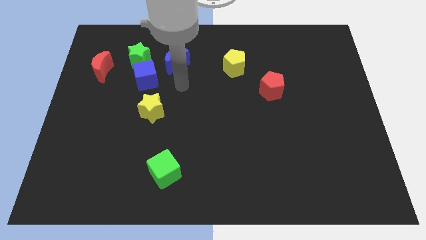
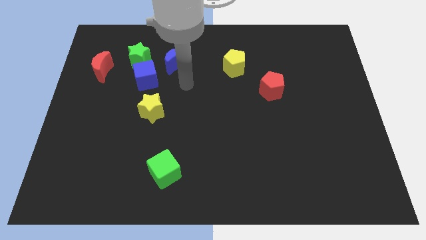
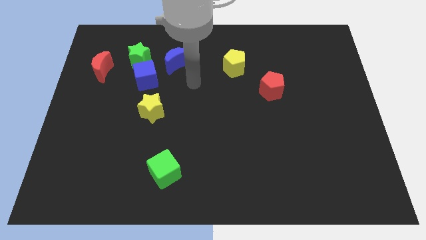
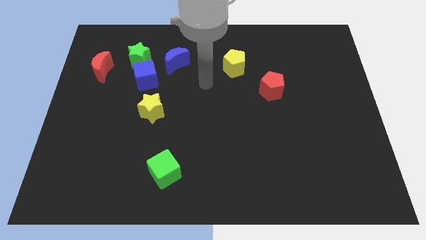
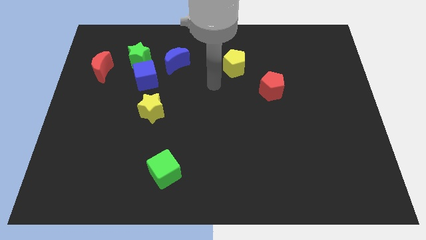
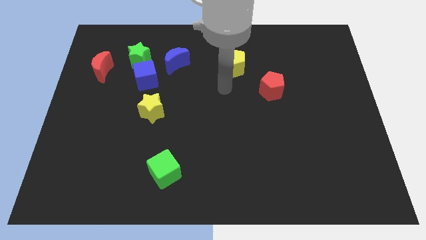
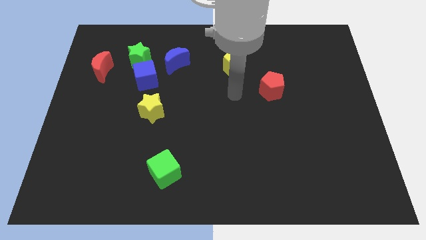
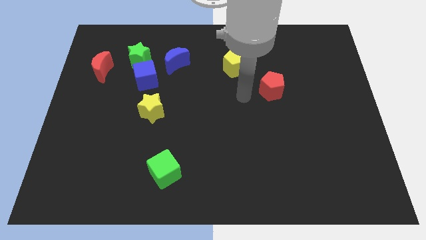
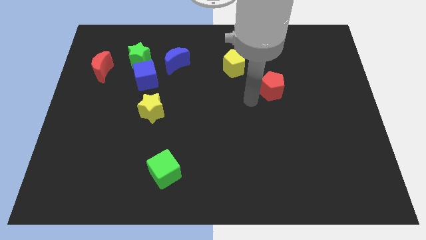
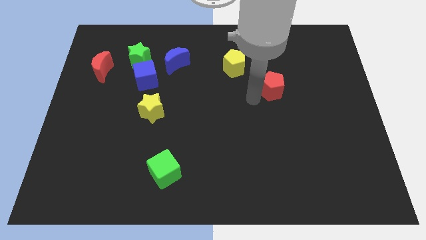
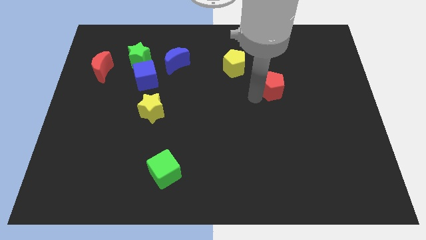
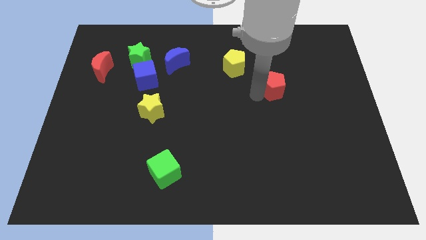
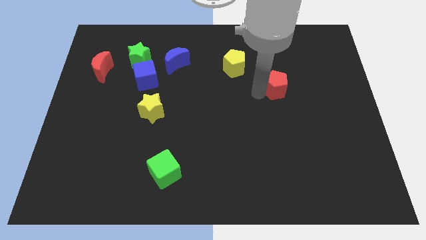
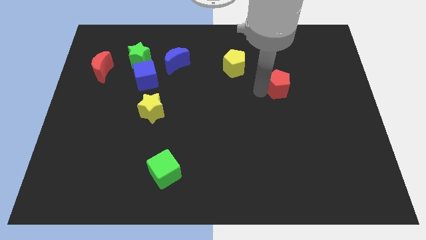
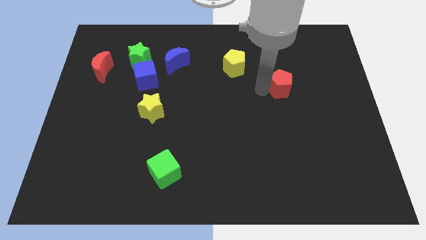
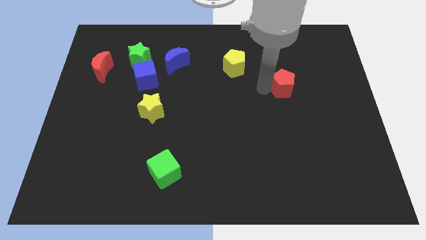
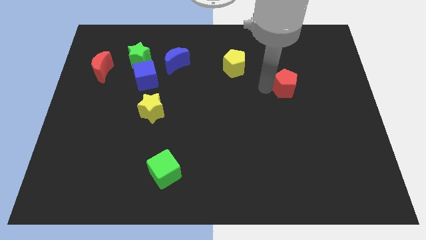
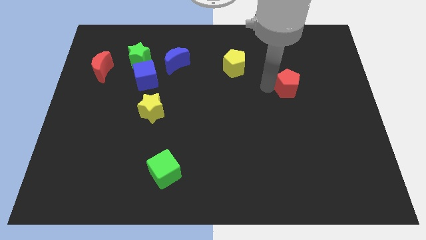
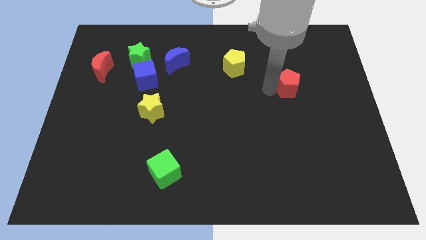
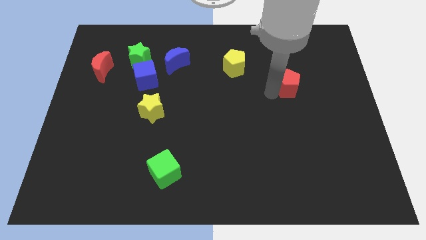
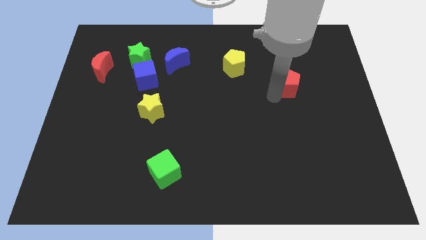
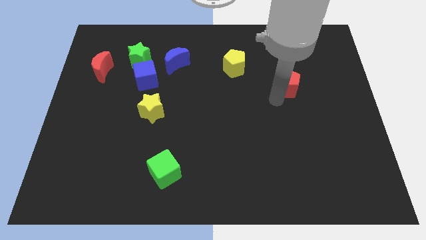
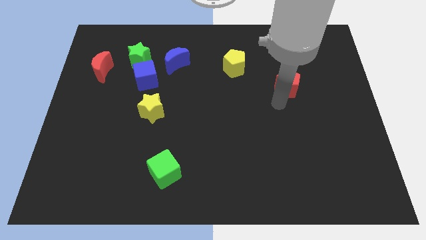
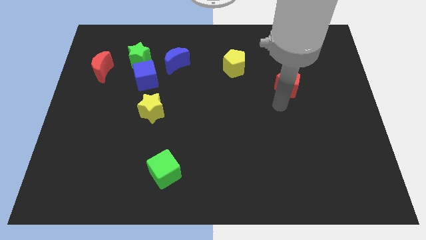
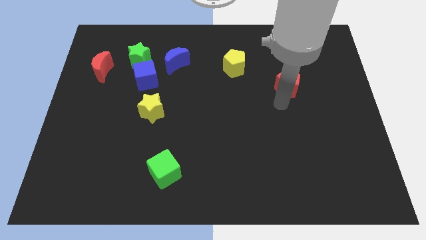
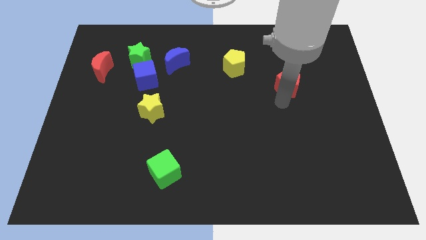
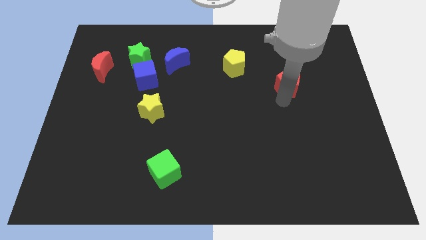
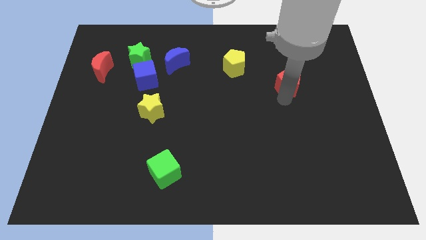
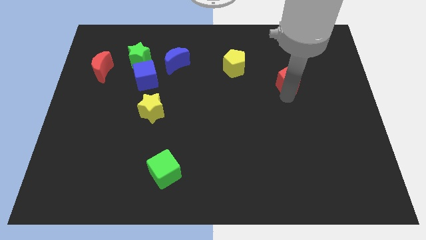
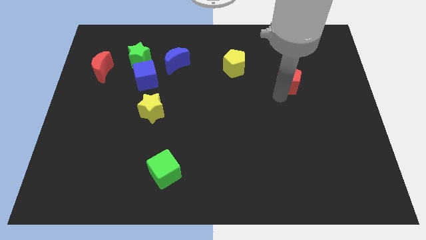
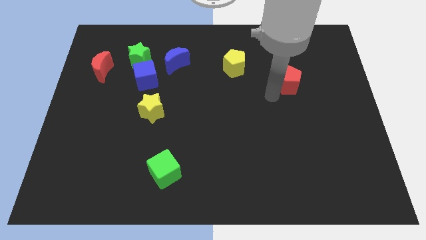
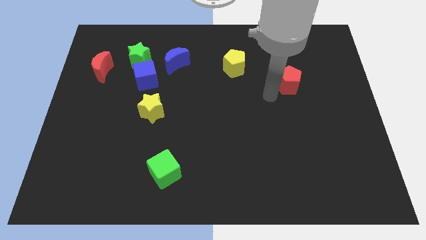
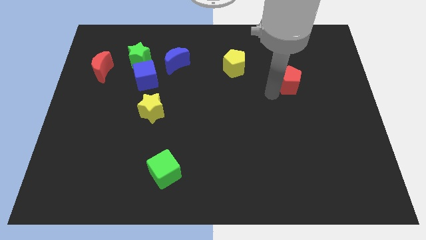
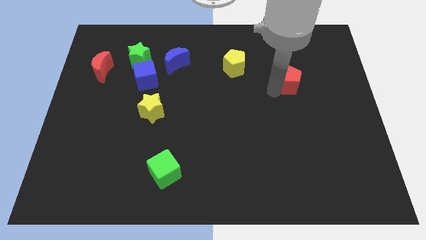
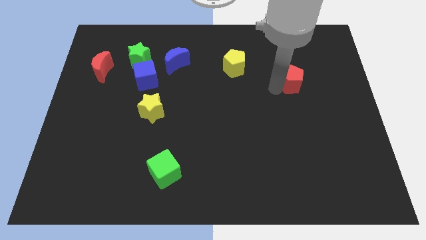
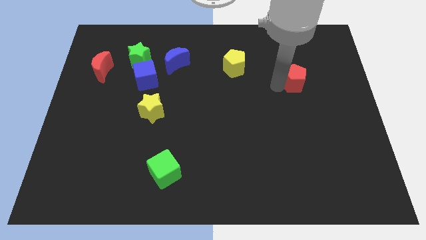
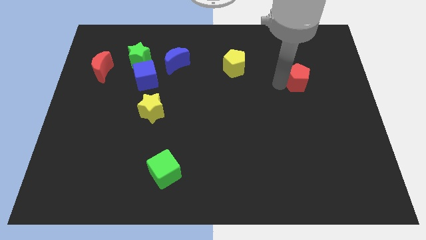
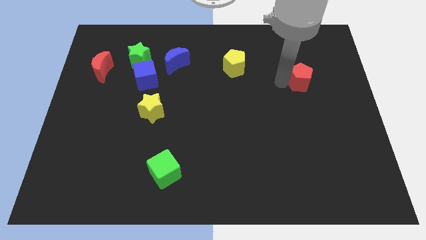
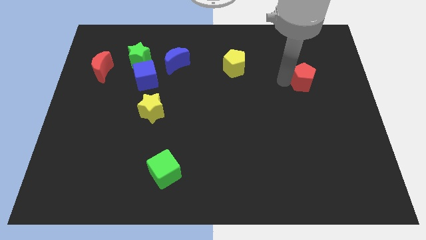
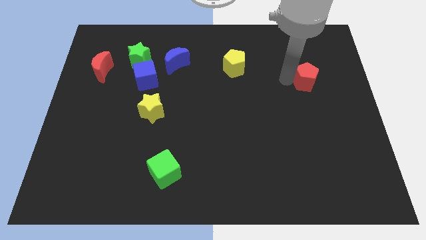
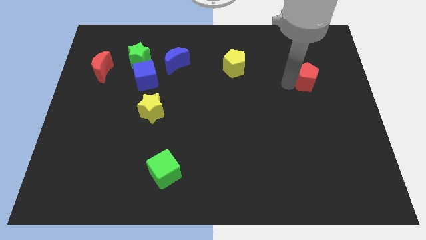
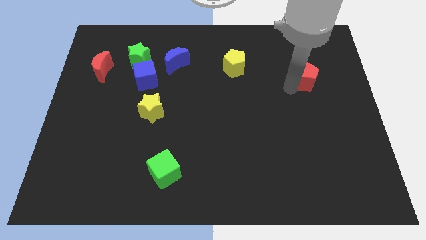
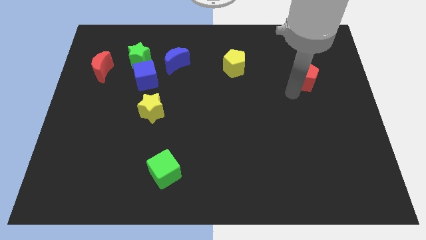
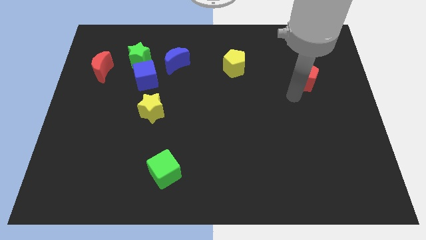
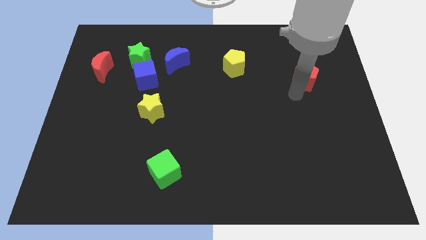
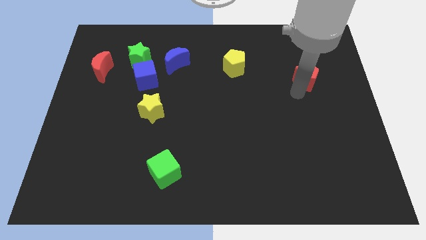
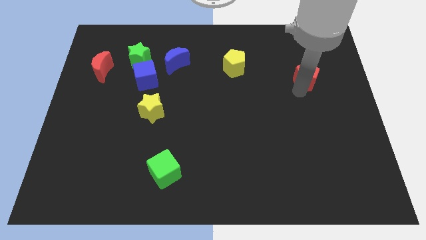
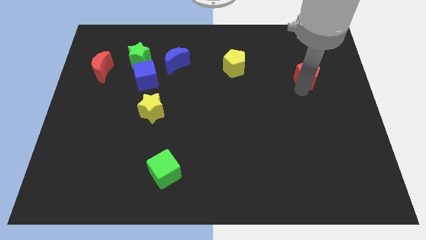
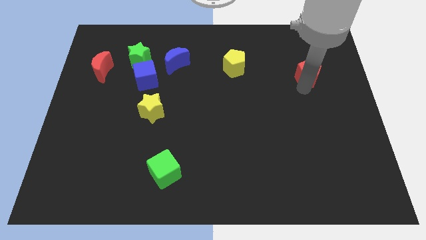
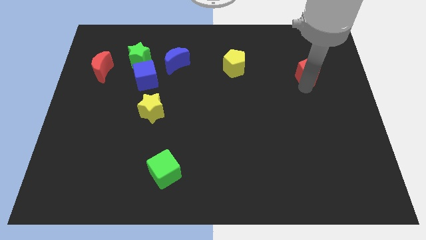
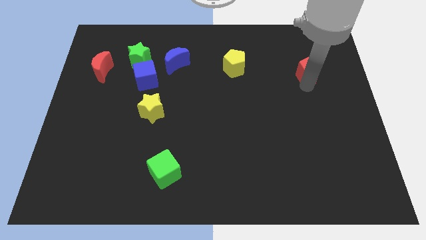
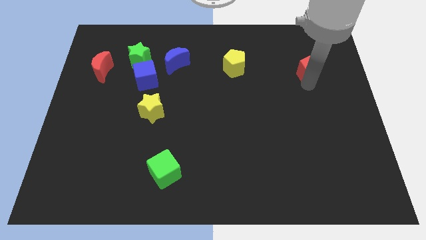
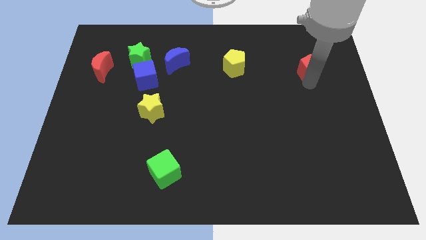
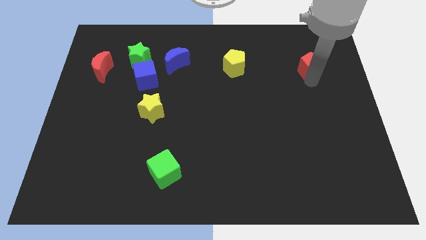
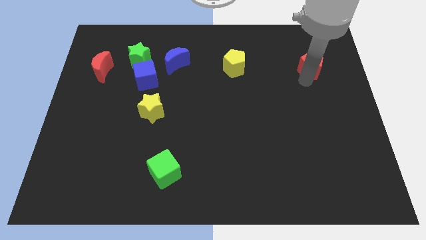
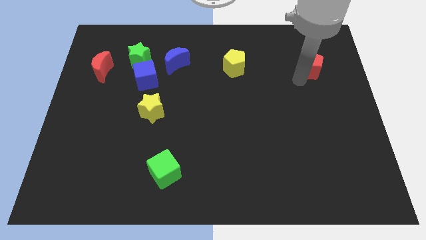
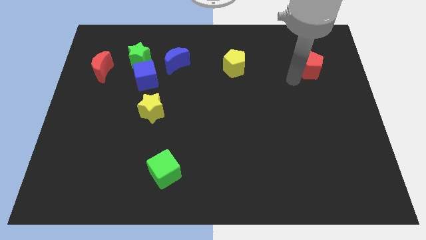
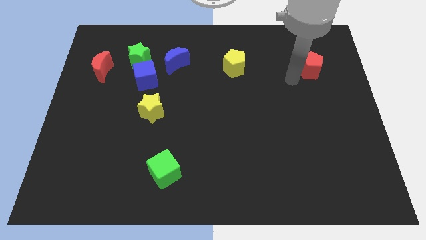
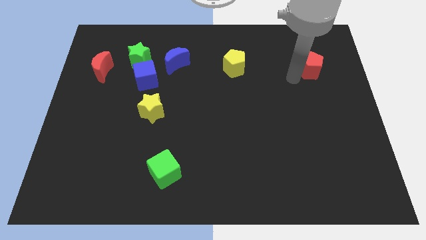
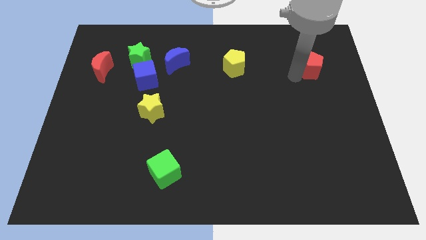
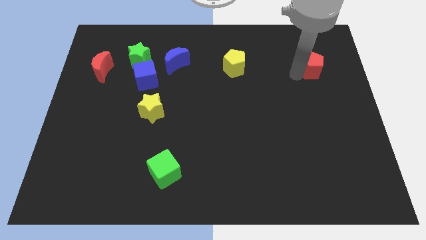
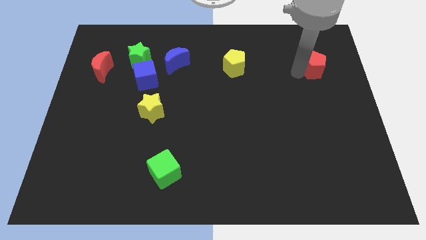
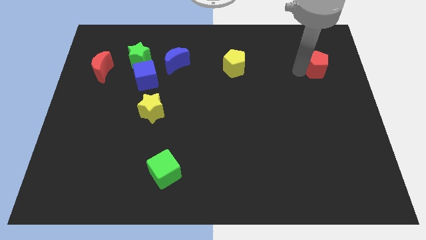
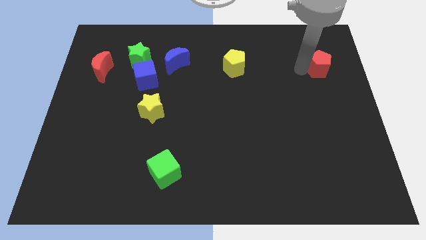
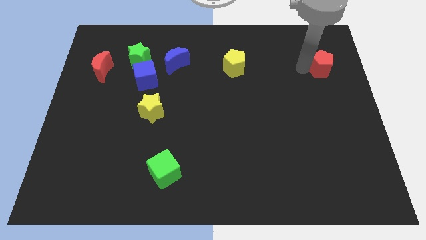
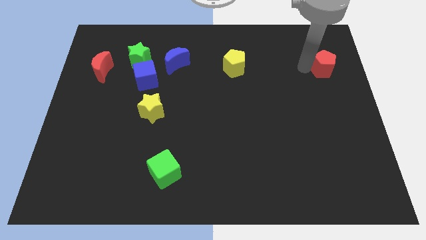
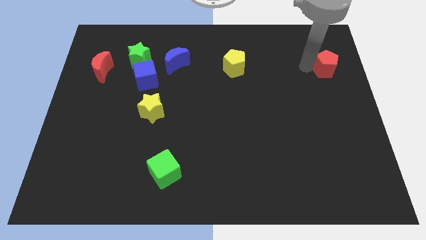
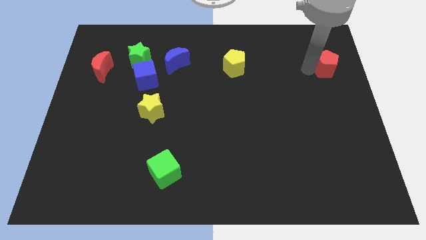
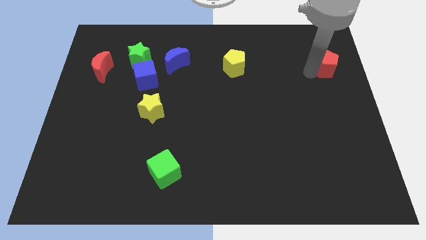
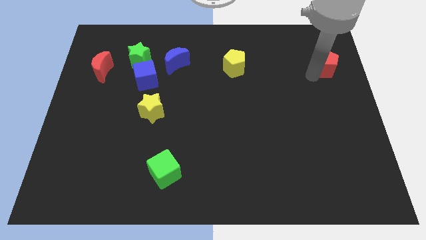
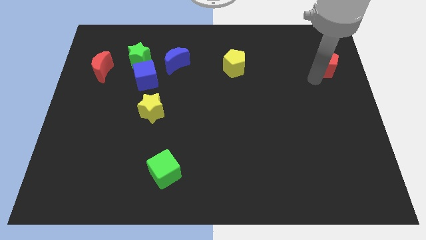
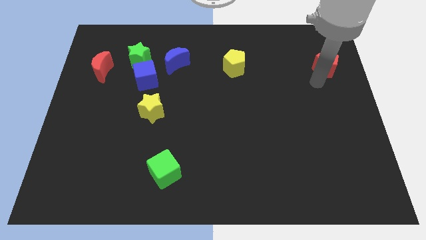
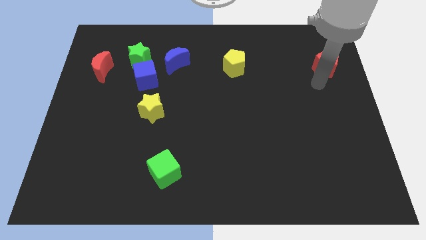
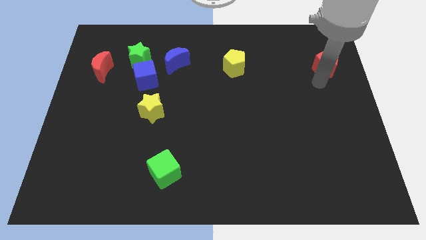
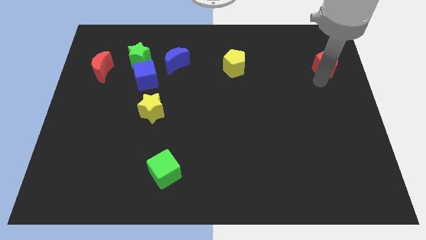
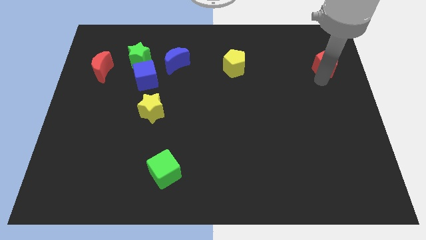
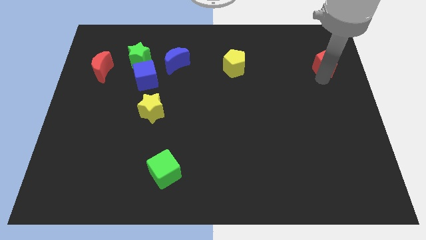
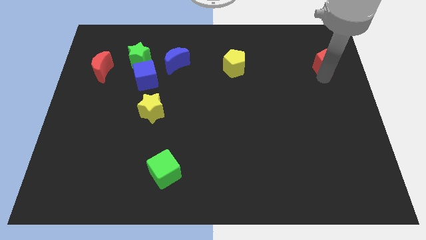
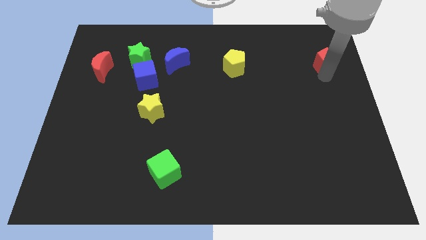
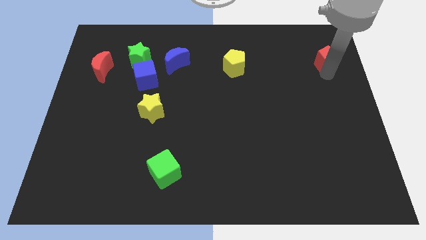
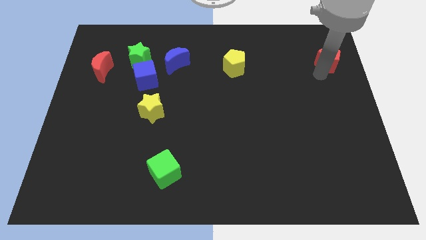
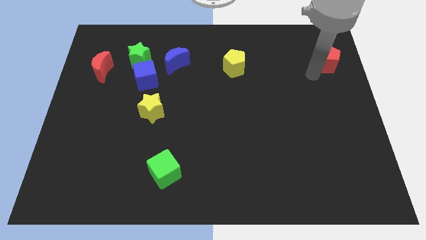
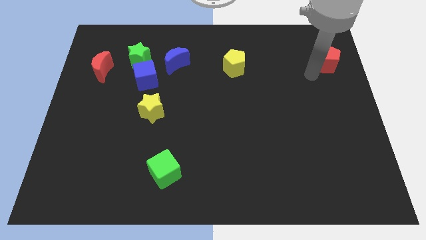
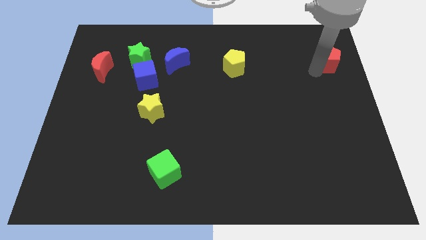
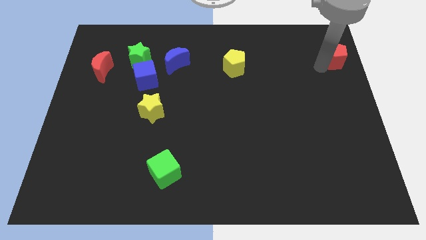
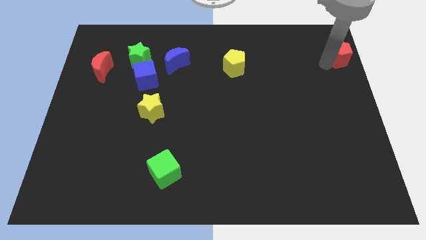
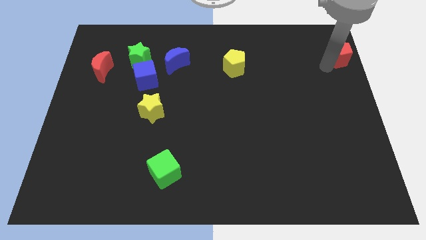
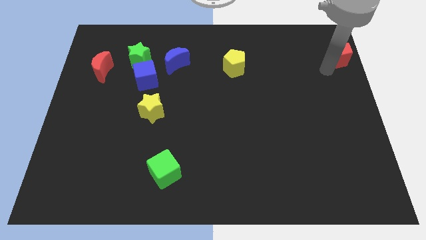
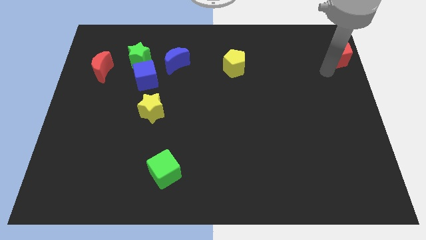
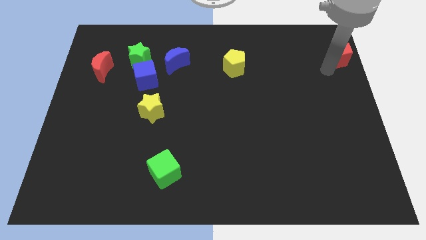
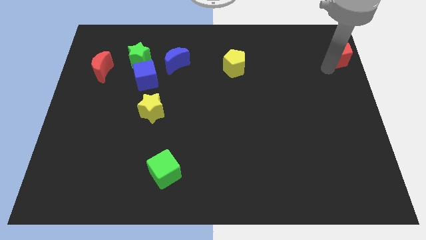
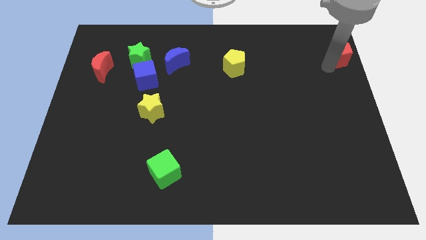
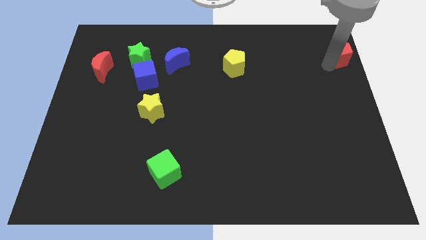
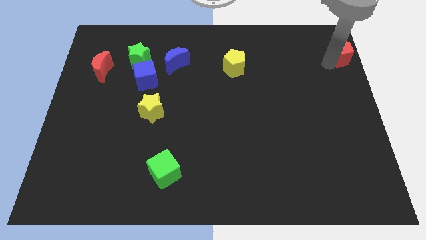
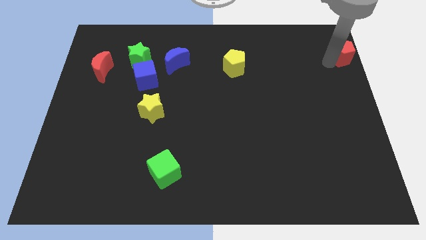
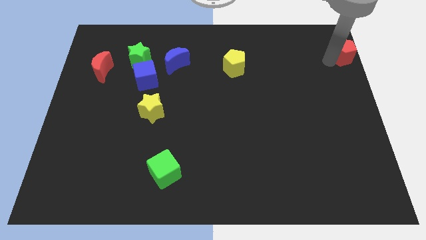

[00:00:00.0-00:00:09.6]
slide the red pentagon to the top right of the board
